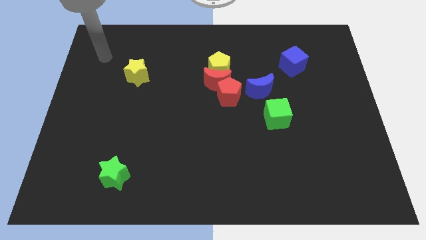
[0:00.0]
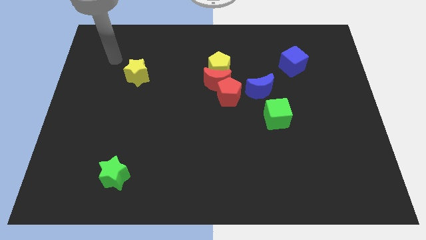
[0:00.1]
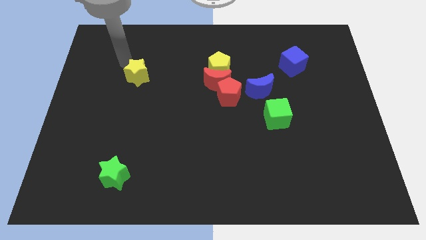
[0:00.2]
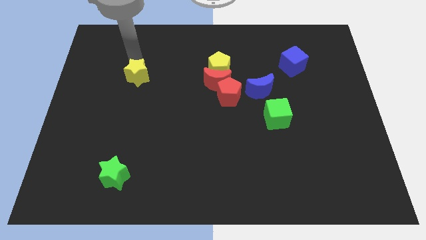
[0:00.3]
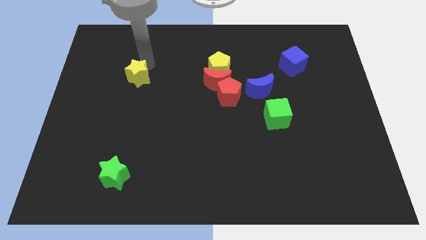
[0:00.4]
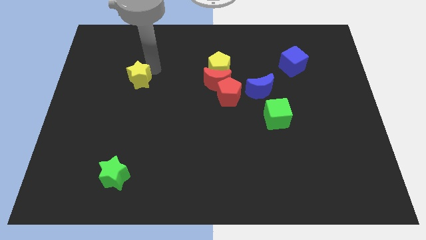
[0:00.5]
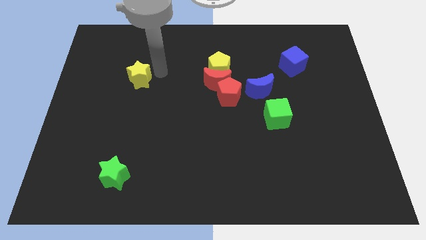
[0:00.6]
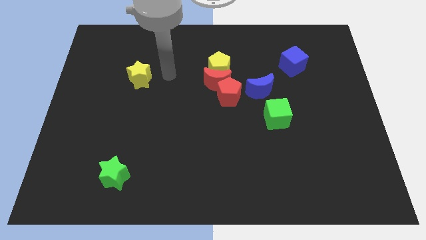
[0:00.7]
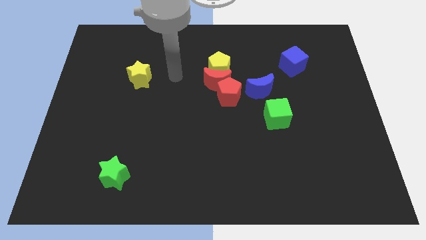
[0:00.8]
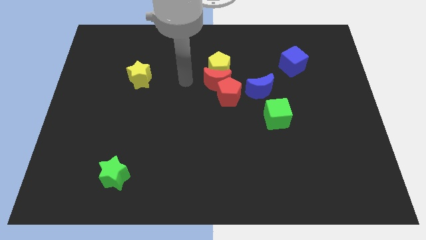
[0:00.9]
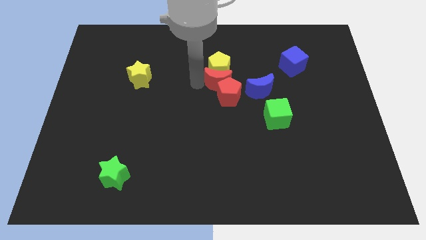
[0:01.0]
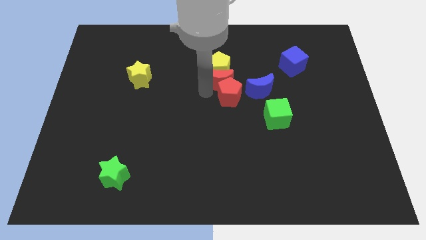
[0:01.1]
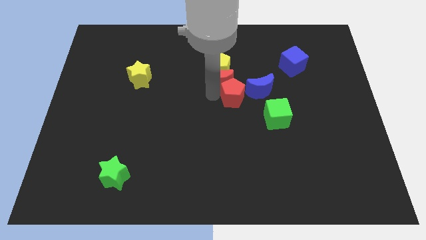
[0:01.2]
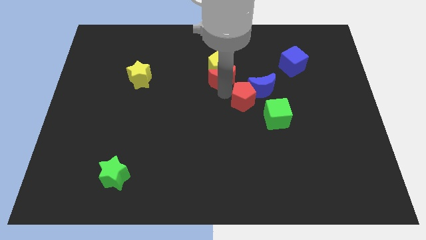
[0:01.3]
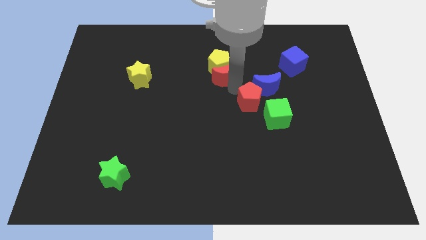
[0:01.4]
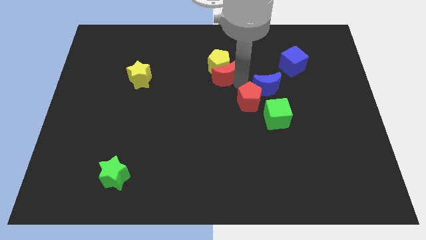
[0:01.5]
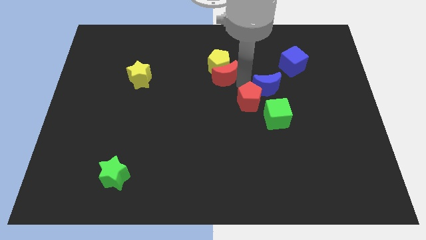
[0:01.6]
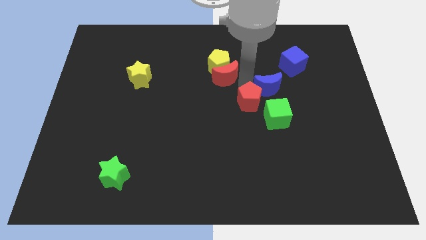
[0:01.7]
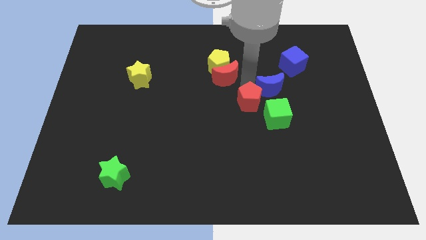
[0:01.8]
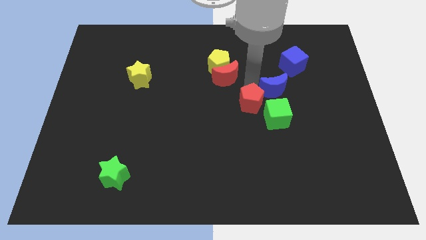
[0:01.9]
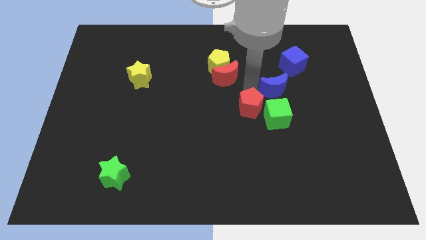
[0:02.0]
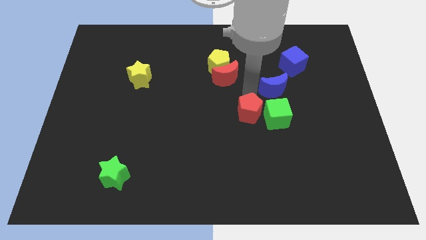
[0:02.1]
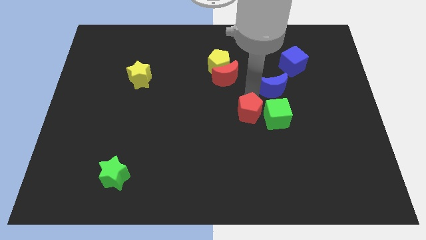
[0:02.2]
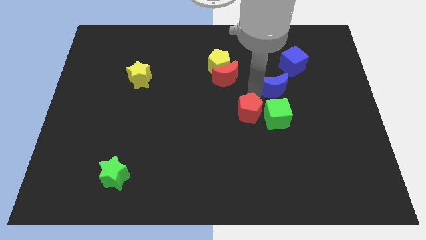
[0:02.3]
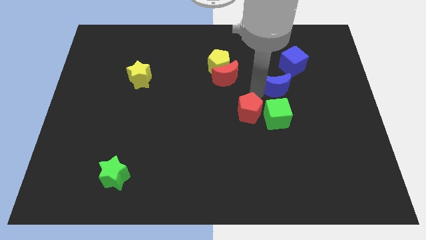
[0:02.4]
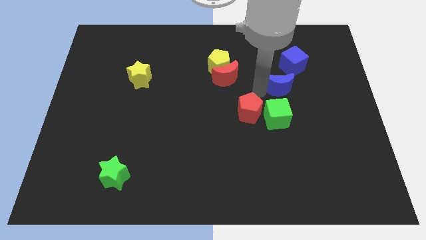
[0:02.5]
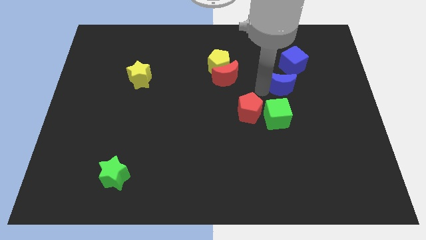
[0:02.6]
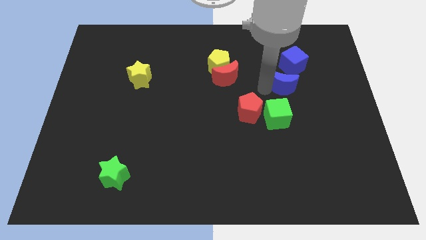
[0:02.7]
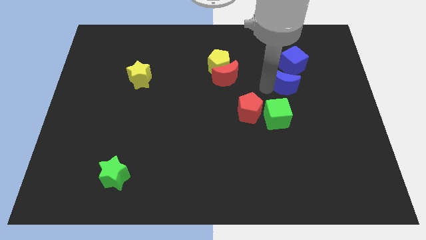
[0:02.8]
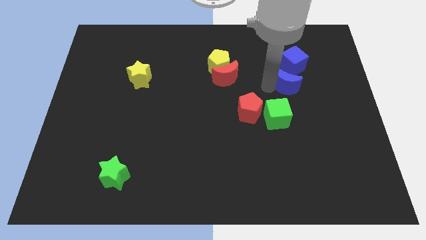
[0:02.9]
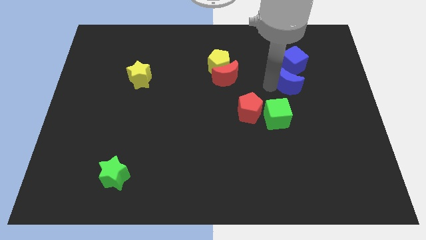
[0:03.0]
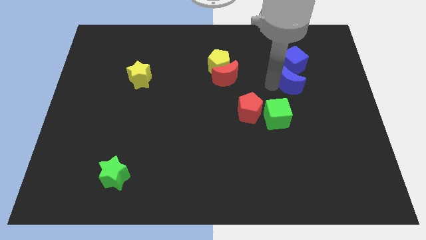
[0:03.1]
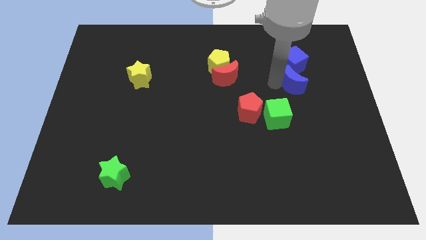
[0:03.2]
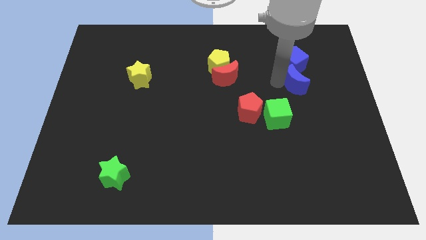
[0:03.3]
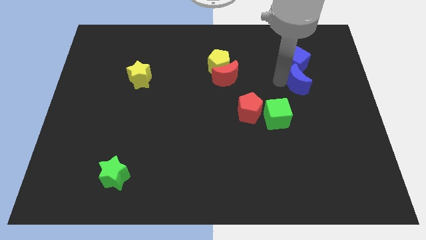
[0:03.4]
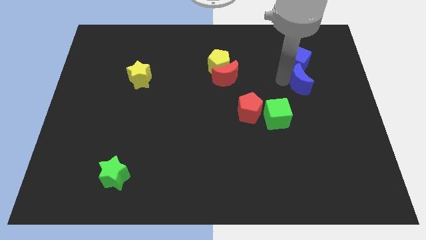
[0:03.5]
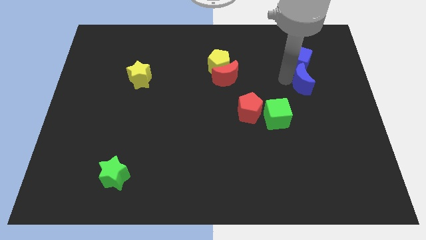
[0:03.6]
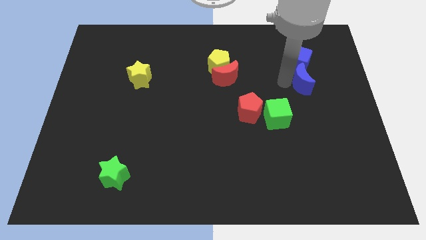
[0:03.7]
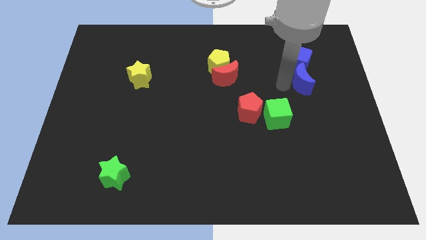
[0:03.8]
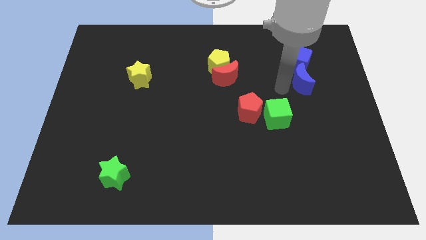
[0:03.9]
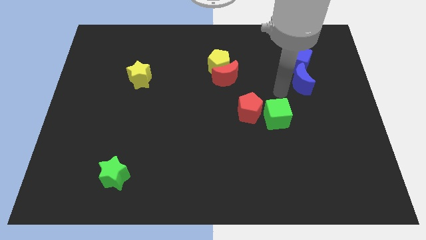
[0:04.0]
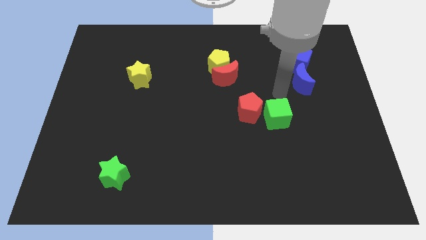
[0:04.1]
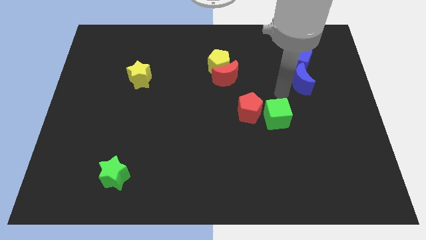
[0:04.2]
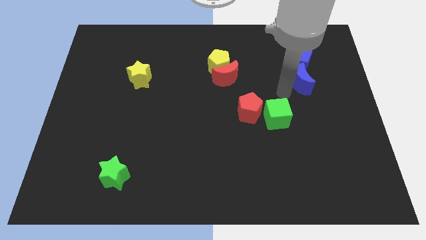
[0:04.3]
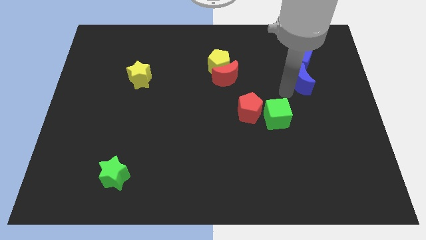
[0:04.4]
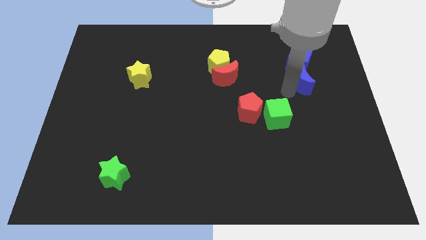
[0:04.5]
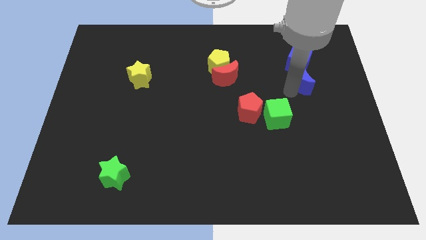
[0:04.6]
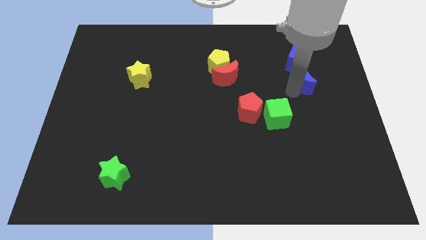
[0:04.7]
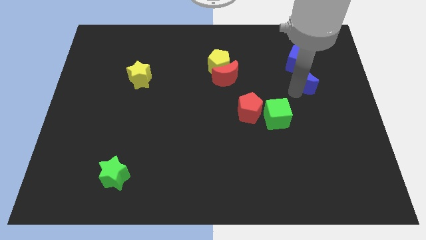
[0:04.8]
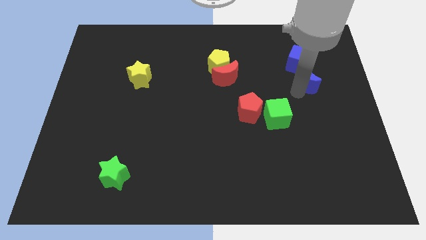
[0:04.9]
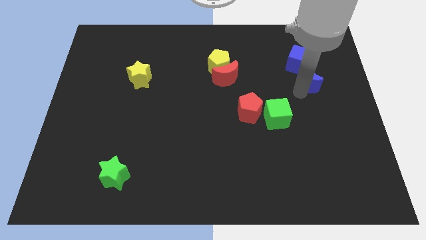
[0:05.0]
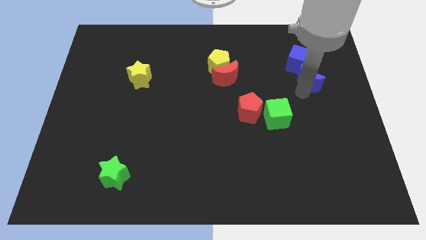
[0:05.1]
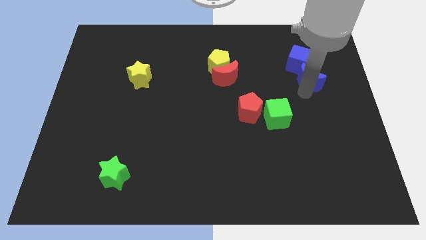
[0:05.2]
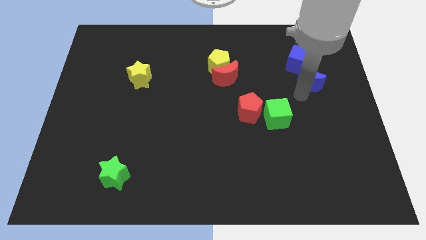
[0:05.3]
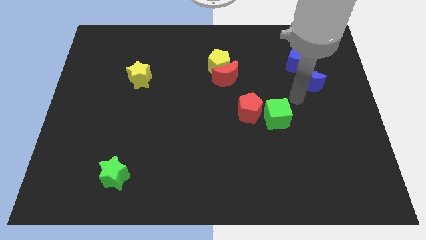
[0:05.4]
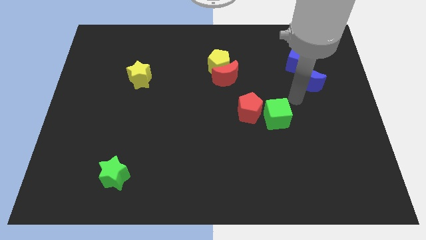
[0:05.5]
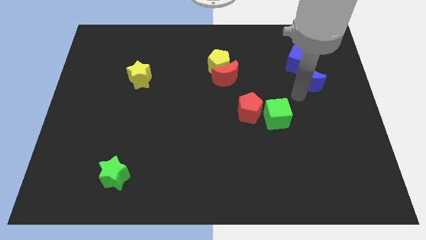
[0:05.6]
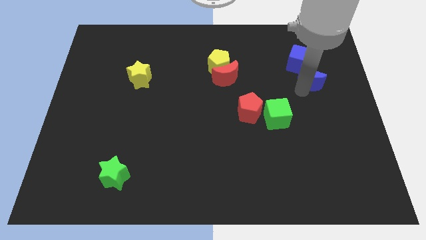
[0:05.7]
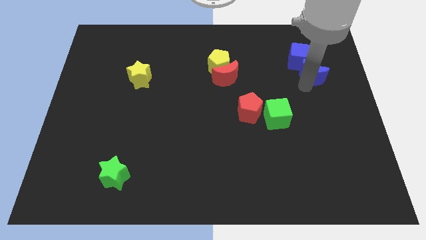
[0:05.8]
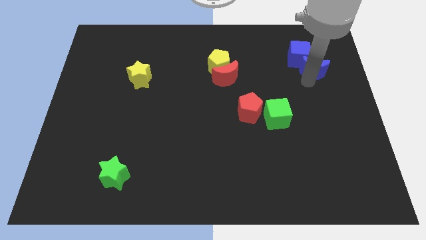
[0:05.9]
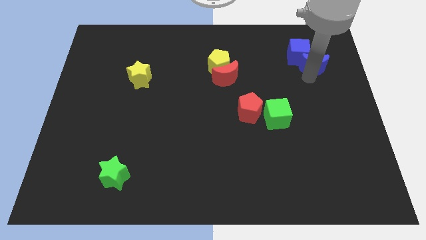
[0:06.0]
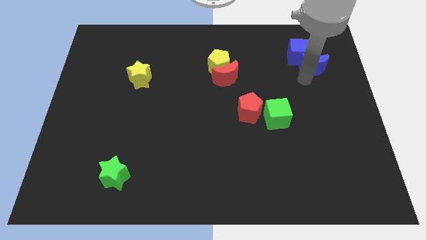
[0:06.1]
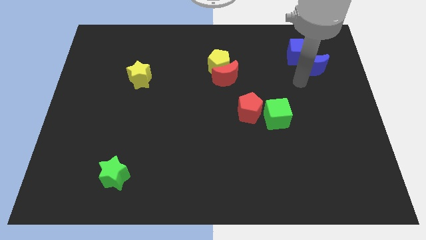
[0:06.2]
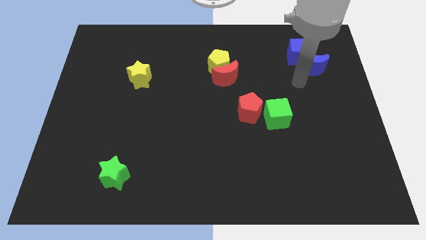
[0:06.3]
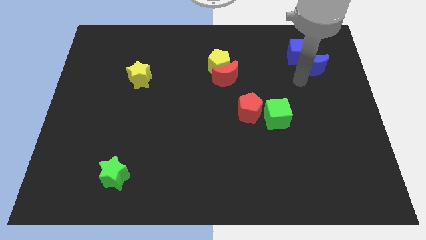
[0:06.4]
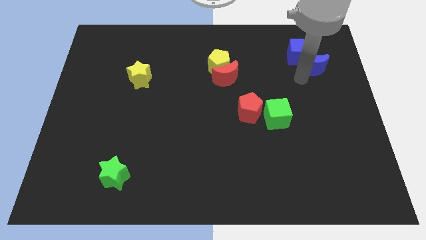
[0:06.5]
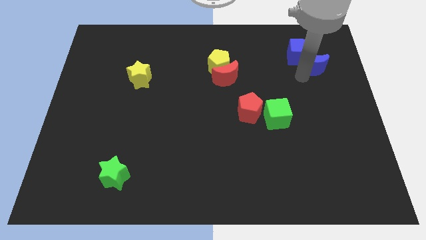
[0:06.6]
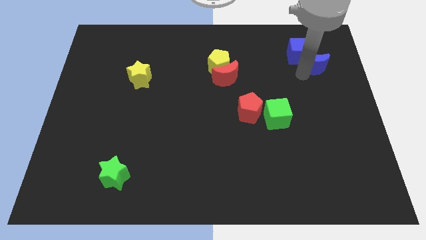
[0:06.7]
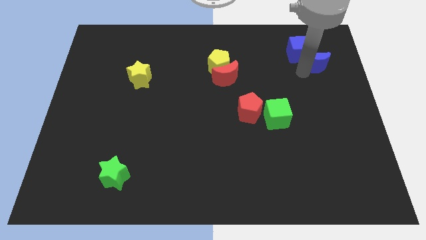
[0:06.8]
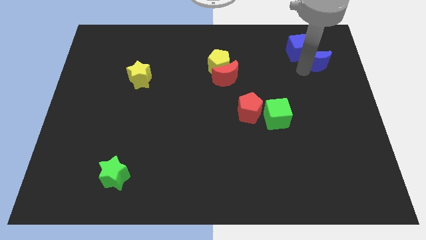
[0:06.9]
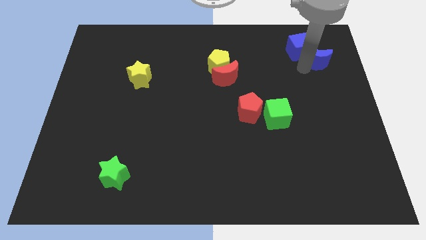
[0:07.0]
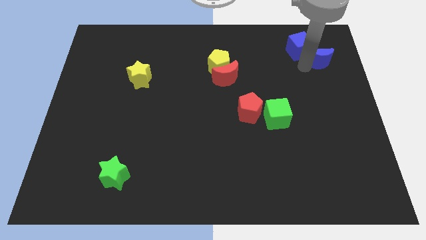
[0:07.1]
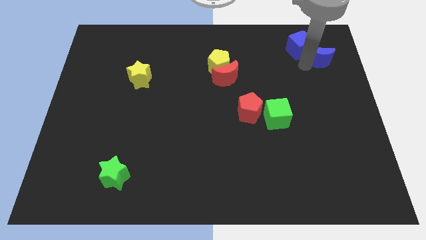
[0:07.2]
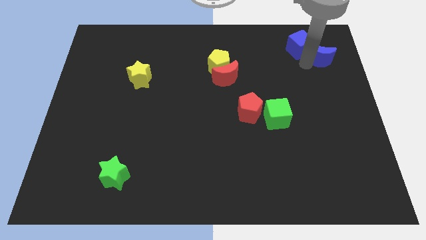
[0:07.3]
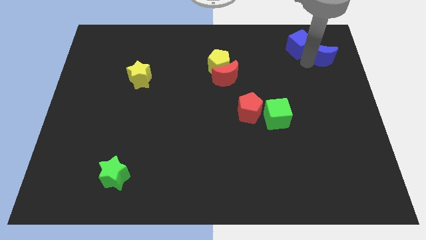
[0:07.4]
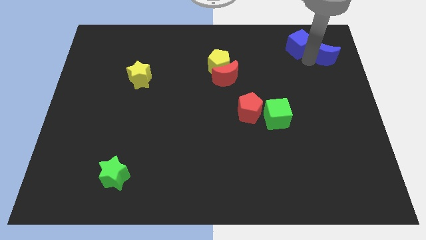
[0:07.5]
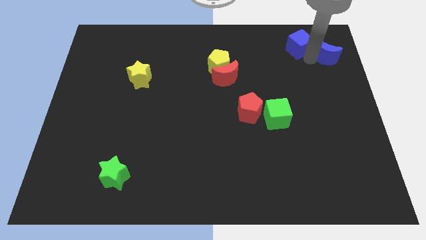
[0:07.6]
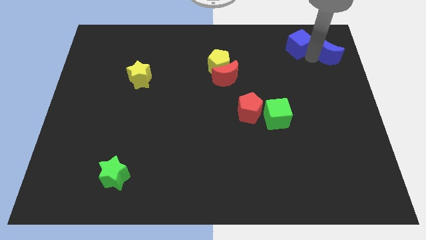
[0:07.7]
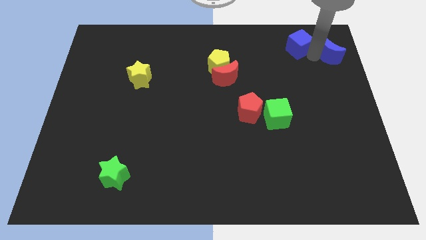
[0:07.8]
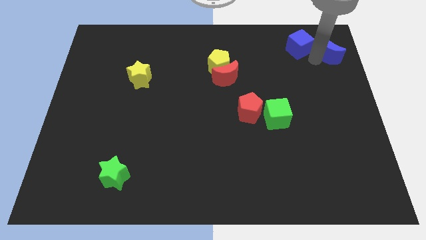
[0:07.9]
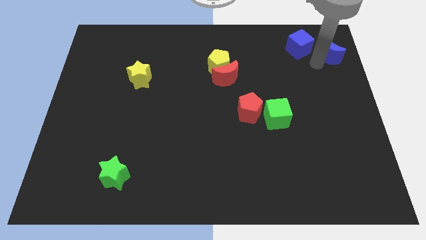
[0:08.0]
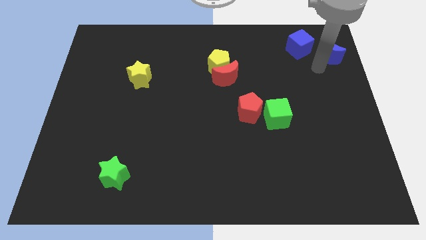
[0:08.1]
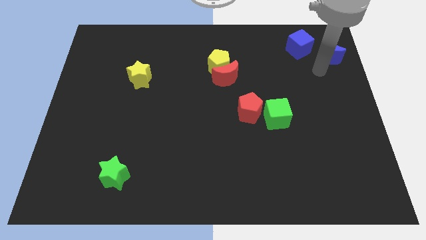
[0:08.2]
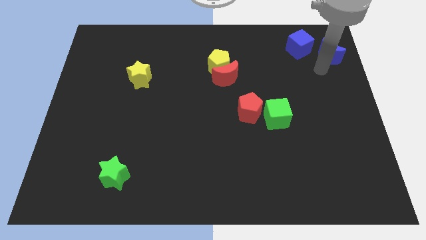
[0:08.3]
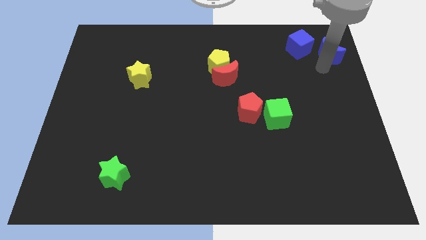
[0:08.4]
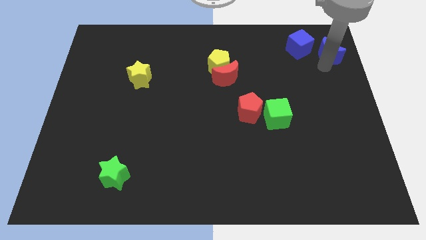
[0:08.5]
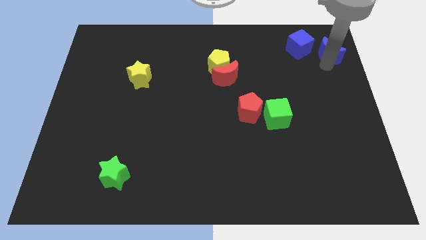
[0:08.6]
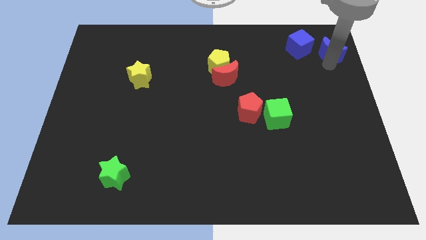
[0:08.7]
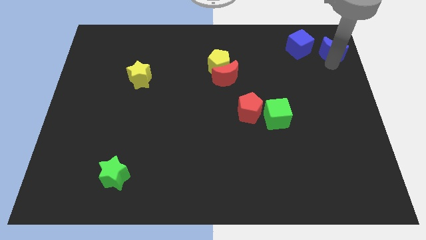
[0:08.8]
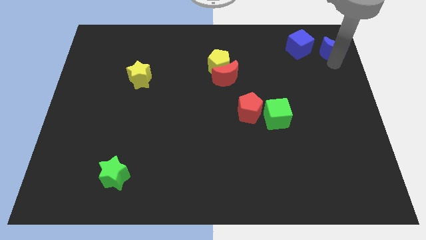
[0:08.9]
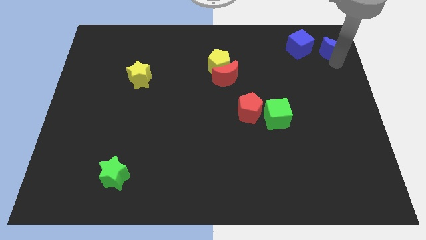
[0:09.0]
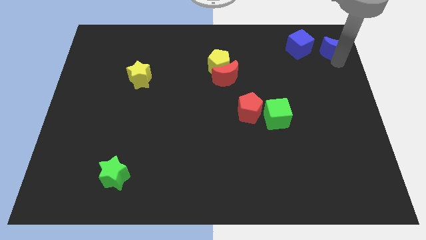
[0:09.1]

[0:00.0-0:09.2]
move the blue moon to the top right corner
